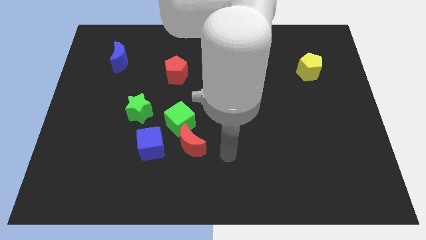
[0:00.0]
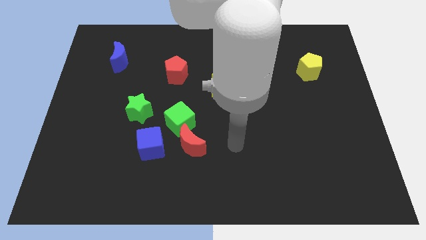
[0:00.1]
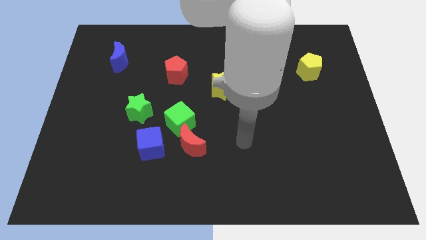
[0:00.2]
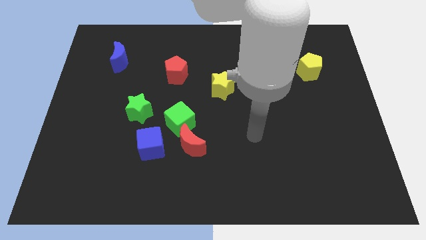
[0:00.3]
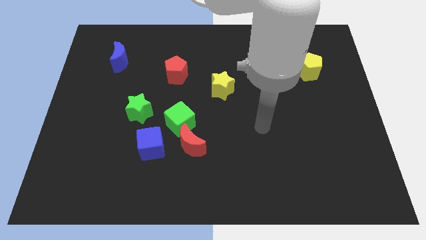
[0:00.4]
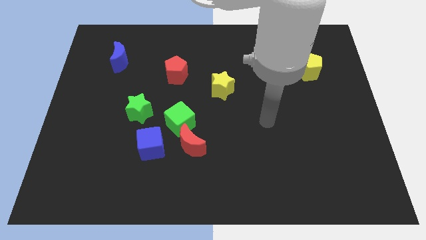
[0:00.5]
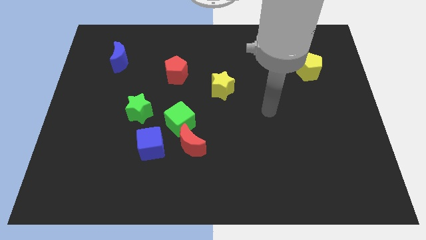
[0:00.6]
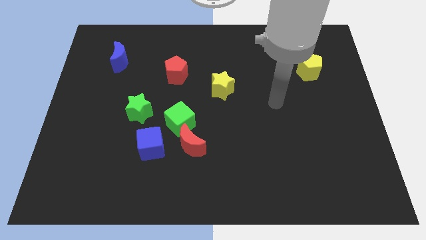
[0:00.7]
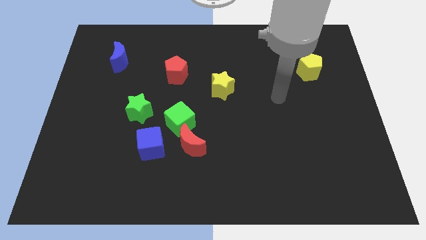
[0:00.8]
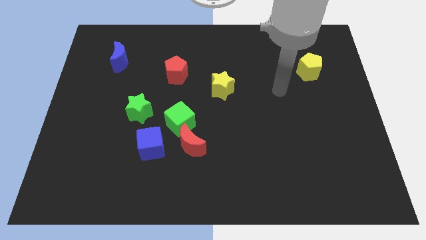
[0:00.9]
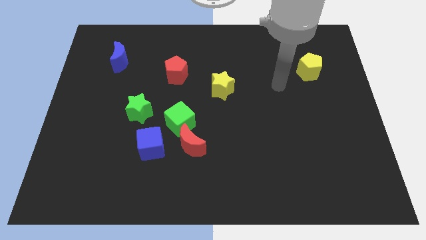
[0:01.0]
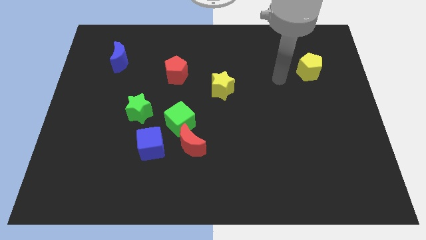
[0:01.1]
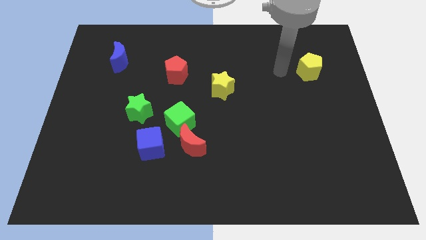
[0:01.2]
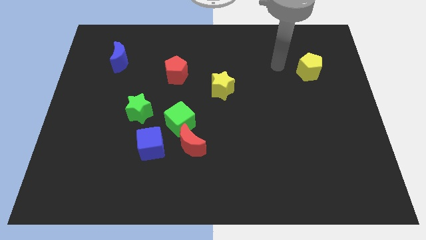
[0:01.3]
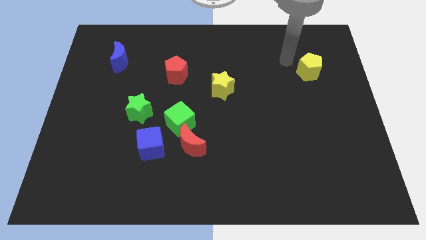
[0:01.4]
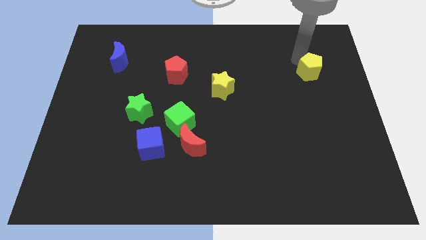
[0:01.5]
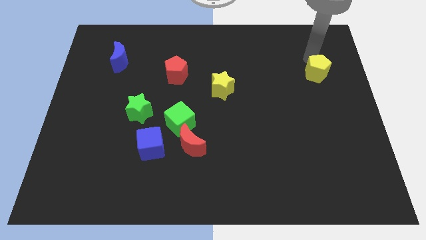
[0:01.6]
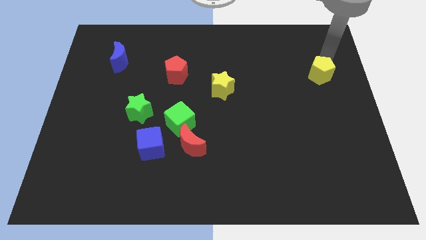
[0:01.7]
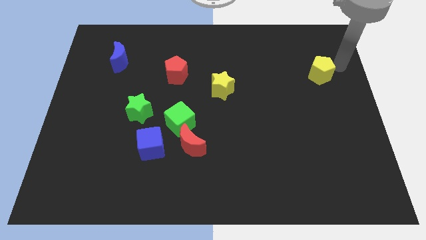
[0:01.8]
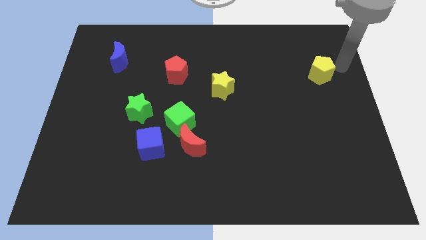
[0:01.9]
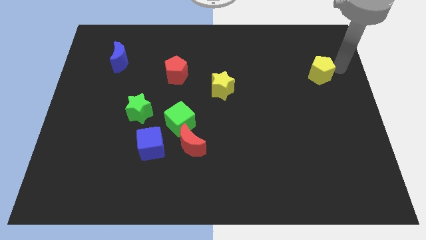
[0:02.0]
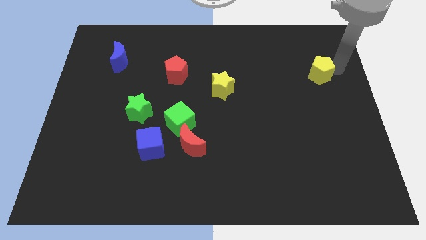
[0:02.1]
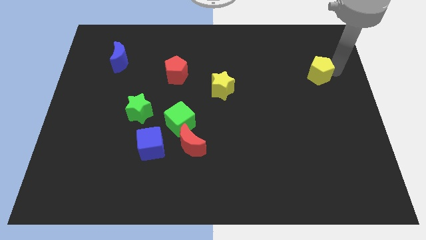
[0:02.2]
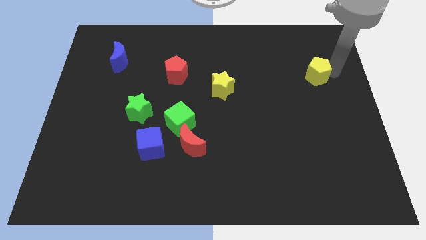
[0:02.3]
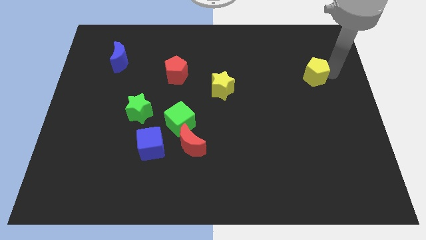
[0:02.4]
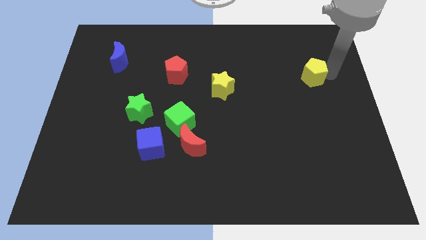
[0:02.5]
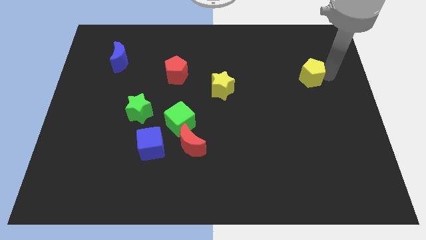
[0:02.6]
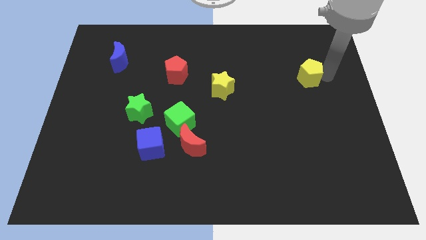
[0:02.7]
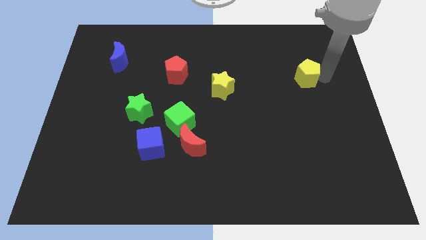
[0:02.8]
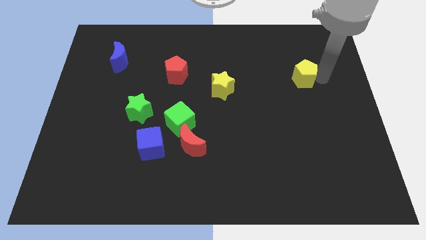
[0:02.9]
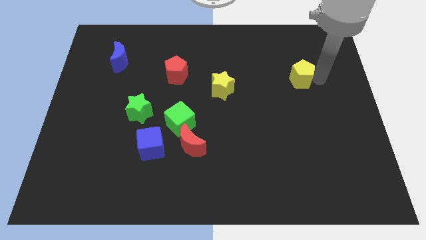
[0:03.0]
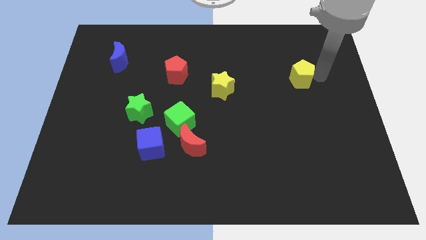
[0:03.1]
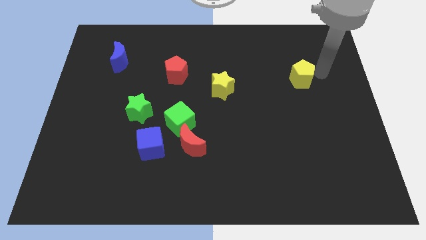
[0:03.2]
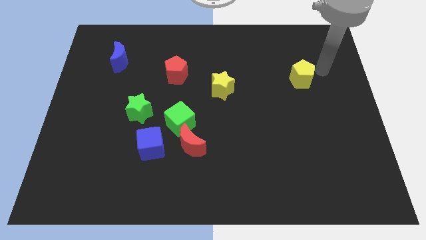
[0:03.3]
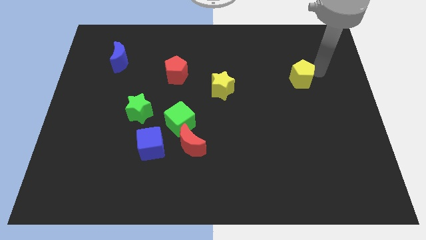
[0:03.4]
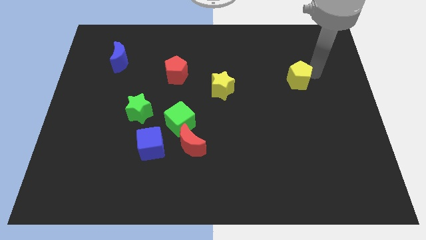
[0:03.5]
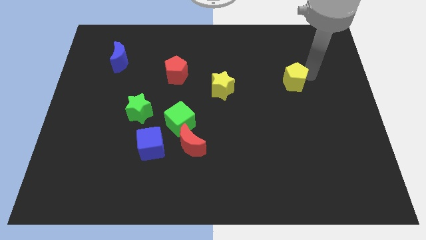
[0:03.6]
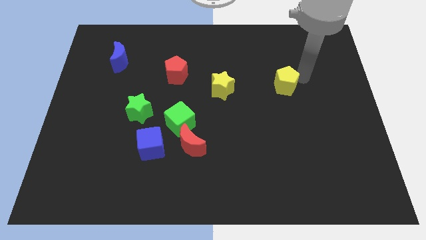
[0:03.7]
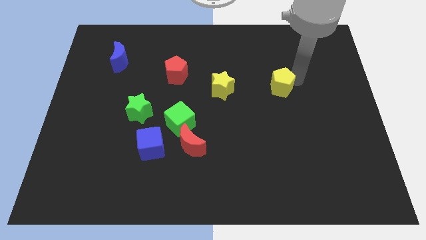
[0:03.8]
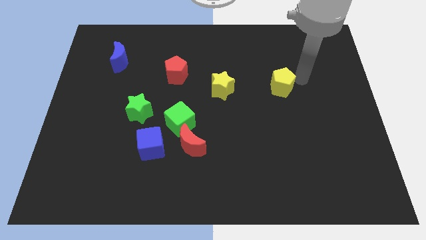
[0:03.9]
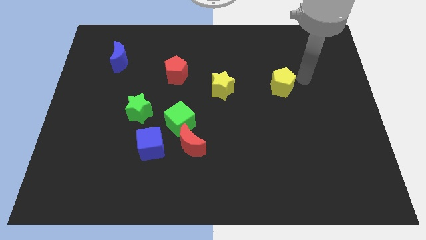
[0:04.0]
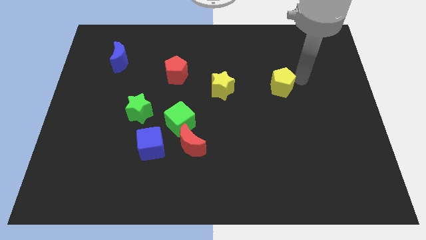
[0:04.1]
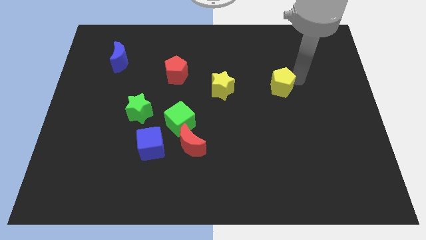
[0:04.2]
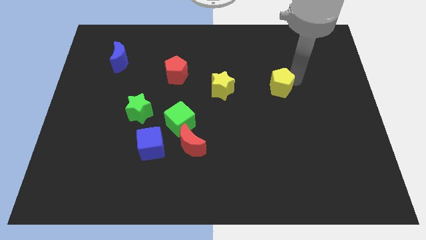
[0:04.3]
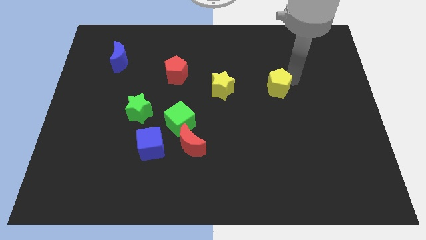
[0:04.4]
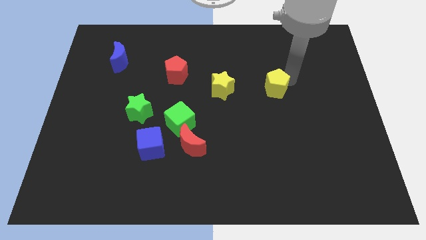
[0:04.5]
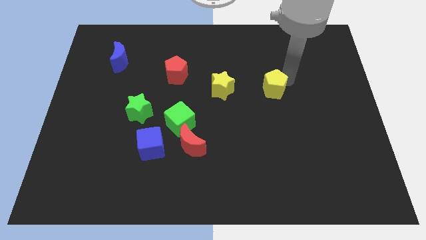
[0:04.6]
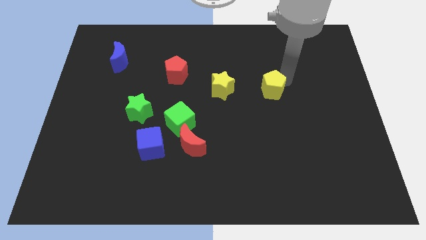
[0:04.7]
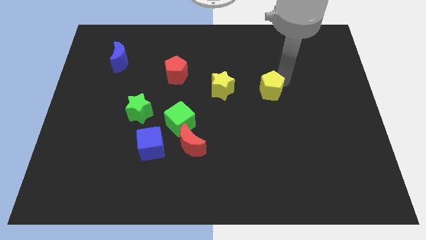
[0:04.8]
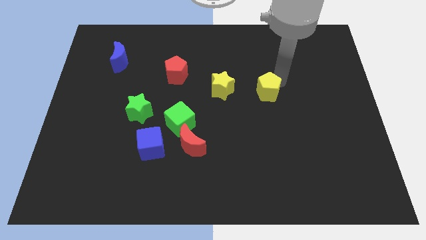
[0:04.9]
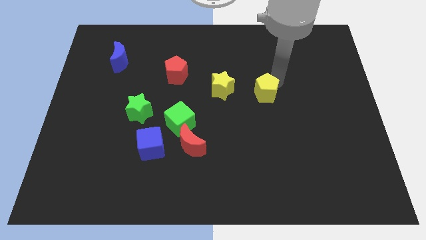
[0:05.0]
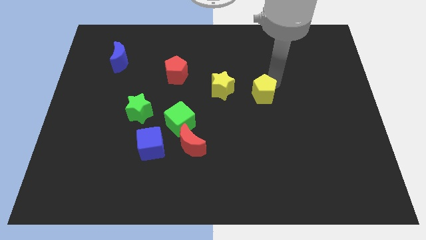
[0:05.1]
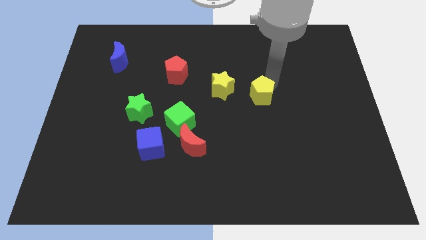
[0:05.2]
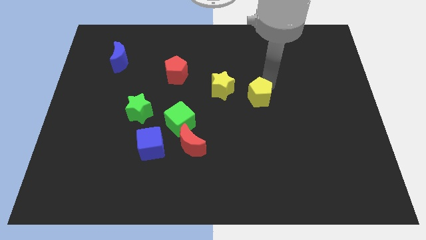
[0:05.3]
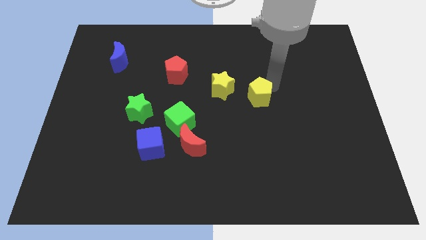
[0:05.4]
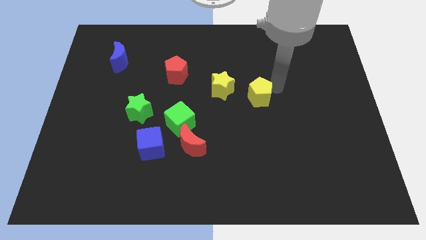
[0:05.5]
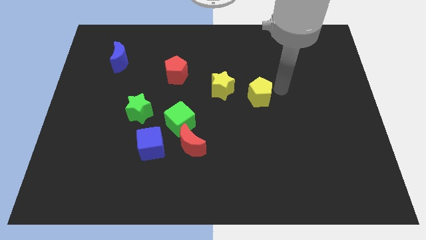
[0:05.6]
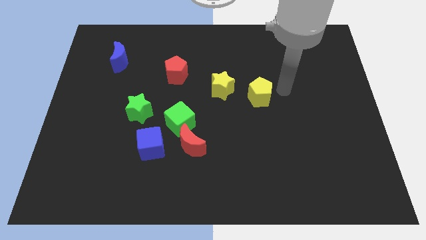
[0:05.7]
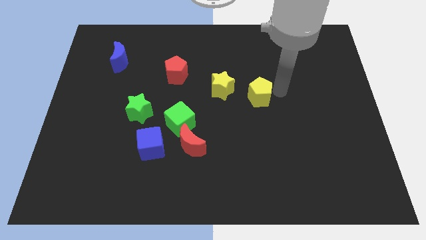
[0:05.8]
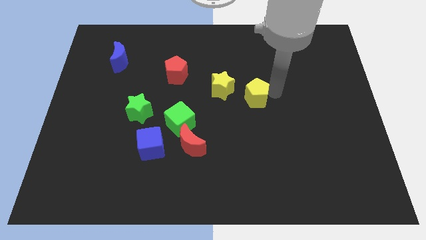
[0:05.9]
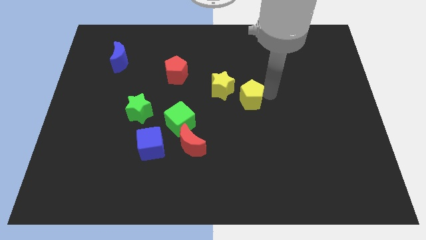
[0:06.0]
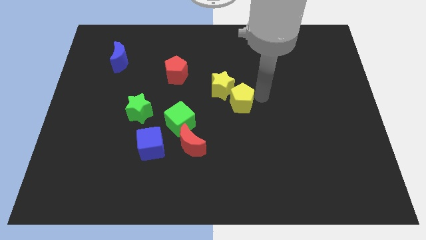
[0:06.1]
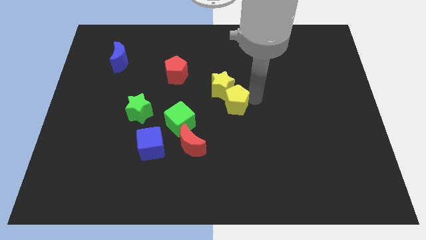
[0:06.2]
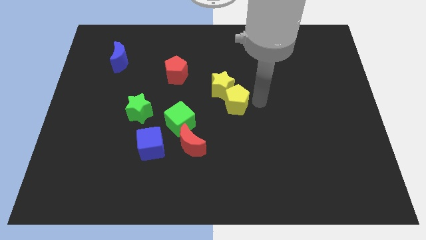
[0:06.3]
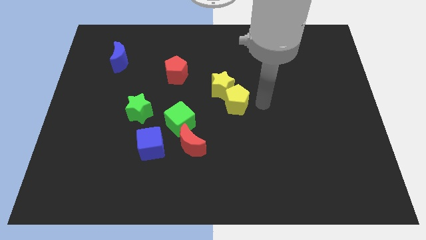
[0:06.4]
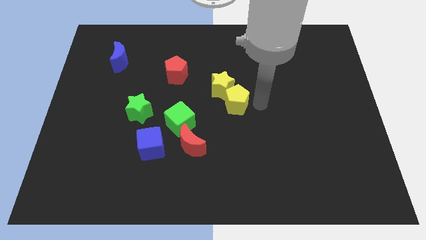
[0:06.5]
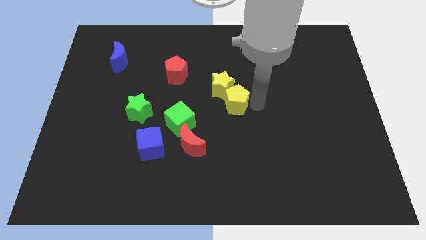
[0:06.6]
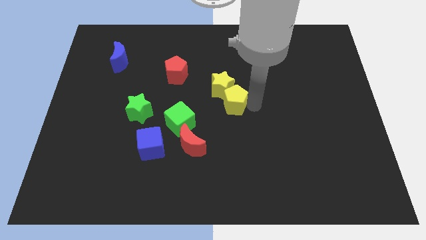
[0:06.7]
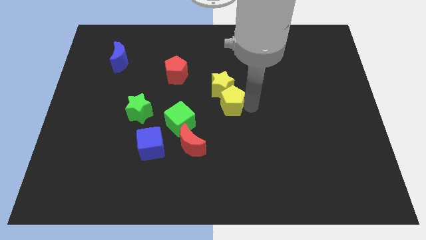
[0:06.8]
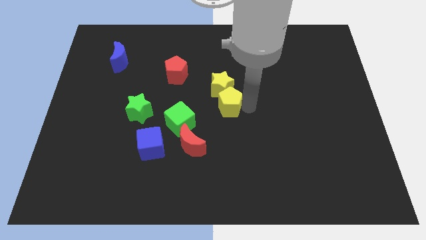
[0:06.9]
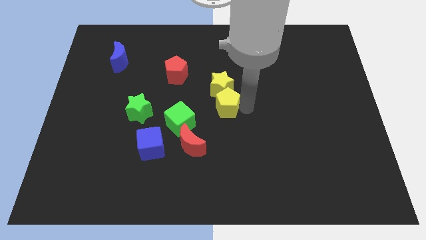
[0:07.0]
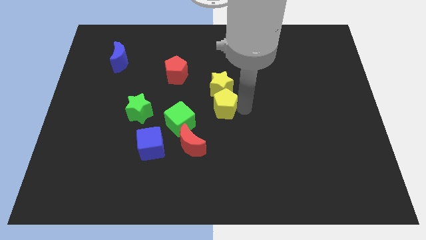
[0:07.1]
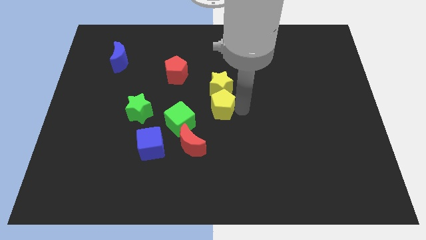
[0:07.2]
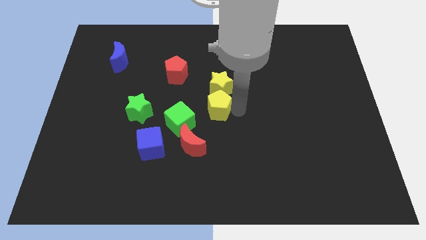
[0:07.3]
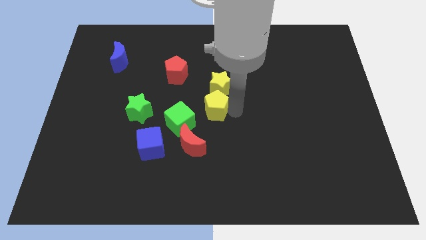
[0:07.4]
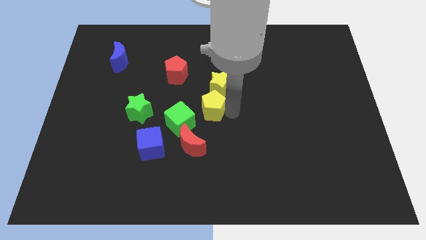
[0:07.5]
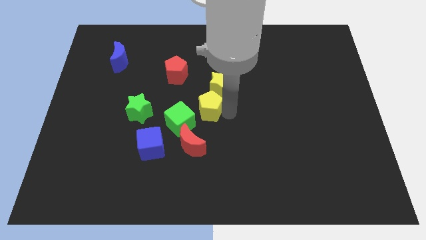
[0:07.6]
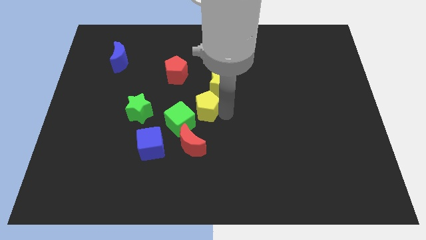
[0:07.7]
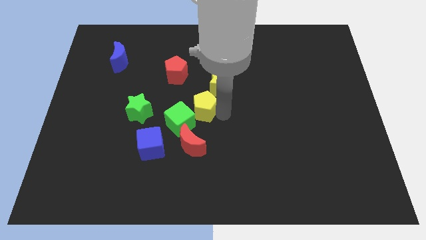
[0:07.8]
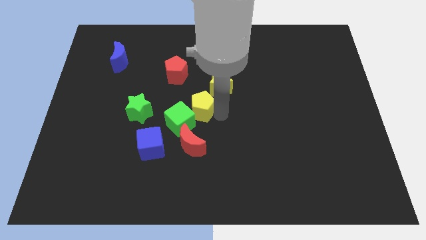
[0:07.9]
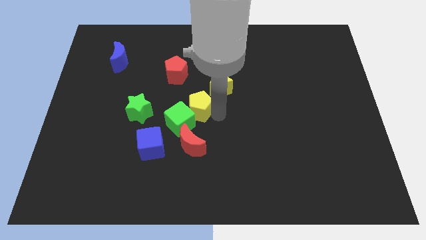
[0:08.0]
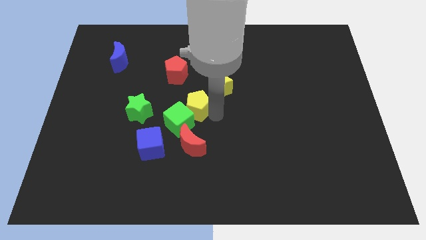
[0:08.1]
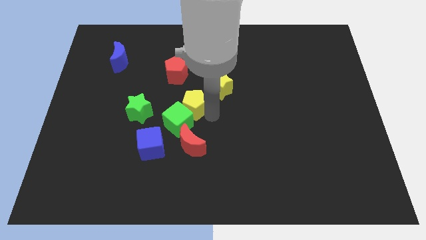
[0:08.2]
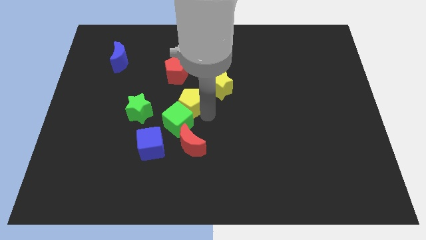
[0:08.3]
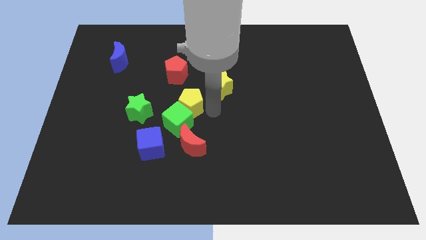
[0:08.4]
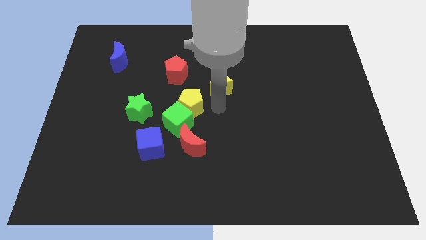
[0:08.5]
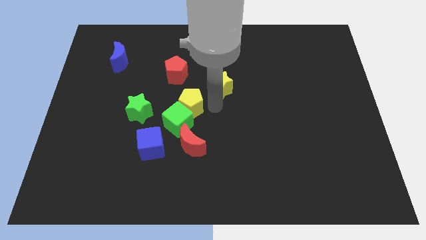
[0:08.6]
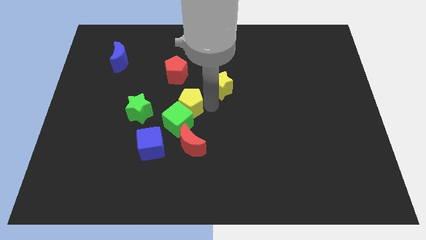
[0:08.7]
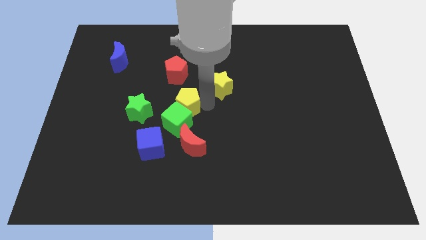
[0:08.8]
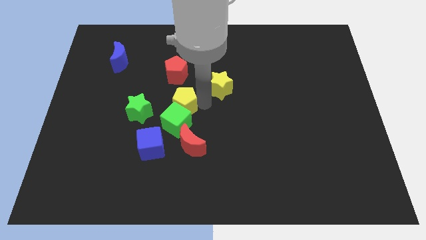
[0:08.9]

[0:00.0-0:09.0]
slide the yellow pentagon to the top left side of the green cube
